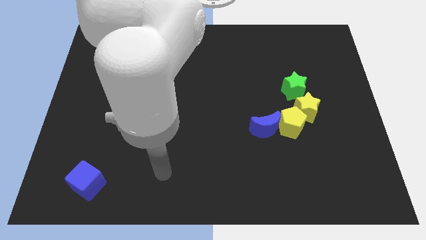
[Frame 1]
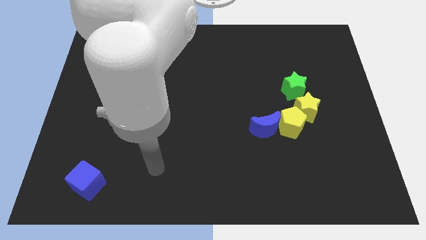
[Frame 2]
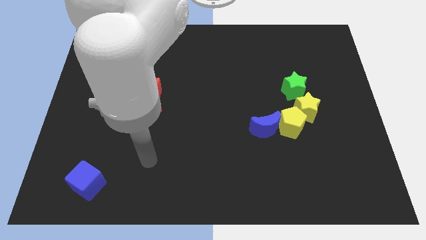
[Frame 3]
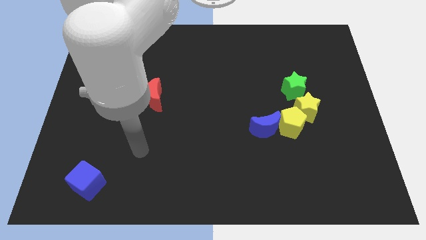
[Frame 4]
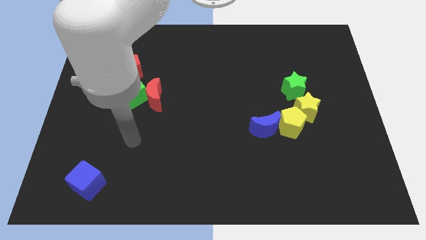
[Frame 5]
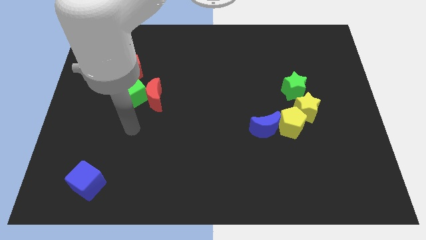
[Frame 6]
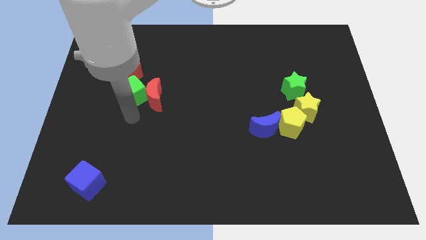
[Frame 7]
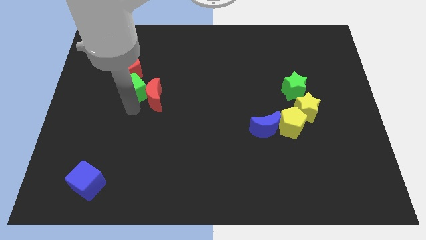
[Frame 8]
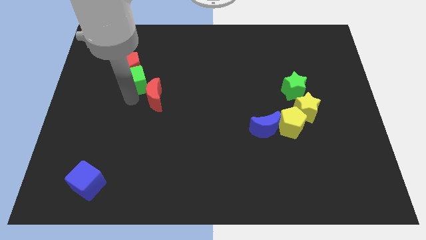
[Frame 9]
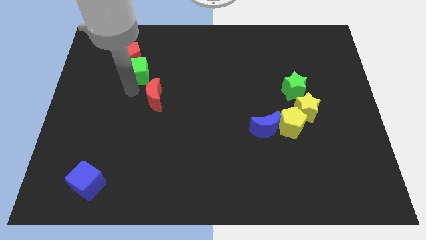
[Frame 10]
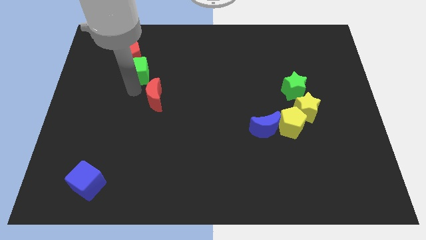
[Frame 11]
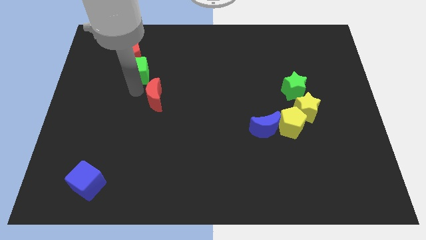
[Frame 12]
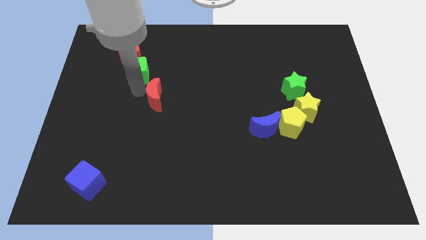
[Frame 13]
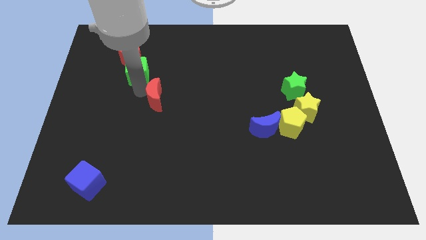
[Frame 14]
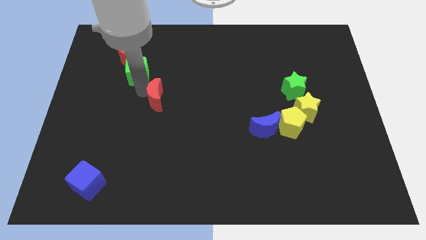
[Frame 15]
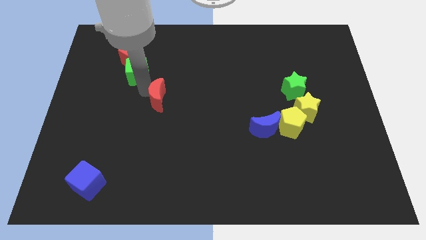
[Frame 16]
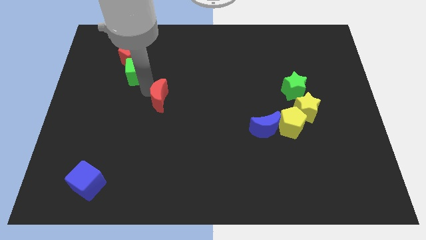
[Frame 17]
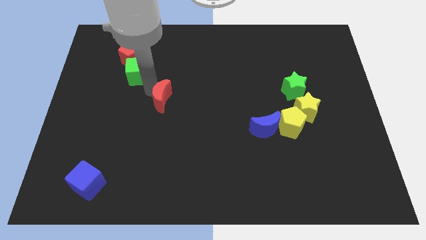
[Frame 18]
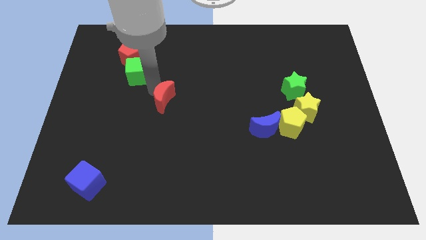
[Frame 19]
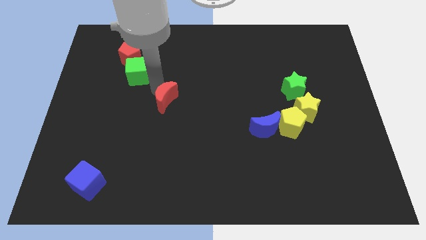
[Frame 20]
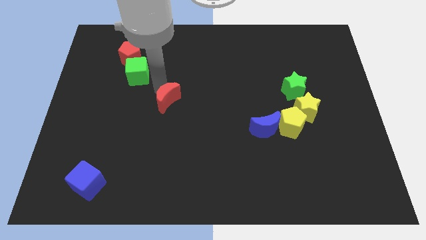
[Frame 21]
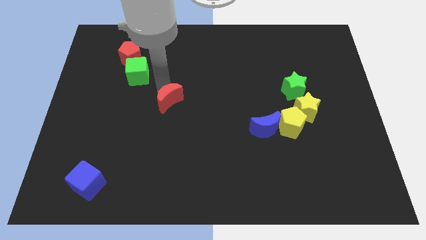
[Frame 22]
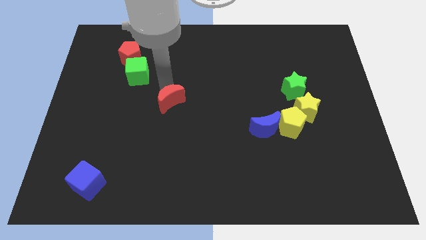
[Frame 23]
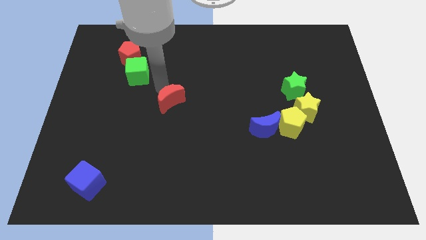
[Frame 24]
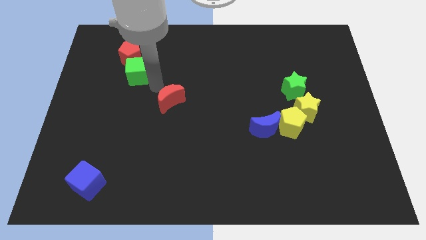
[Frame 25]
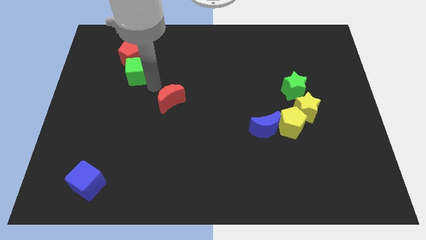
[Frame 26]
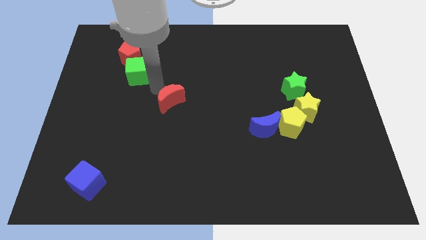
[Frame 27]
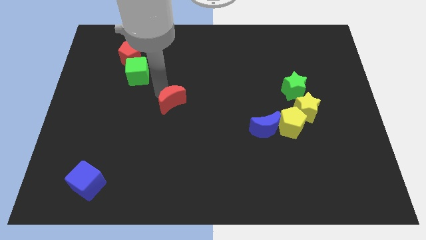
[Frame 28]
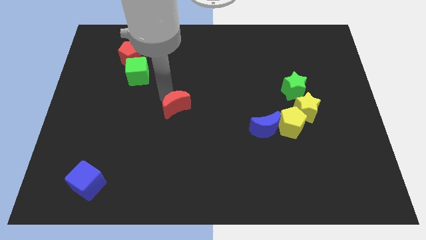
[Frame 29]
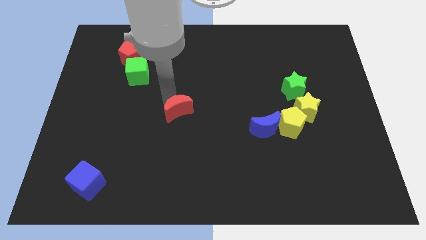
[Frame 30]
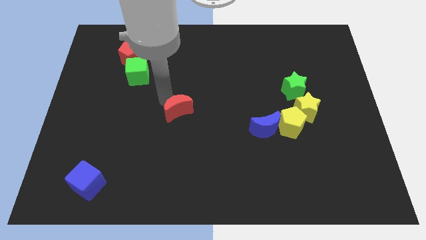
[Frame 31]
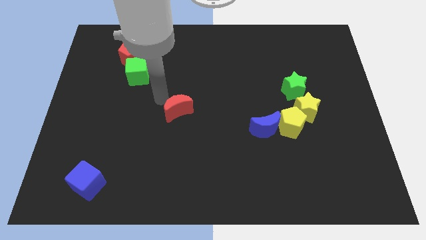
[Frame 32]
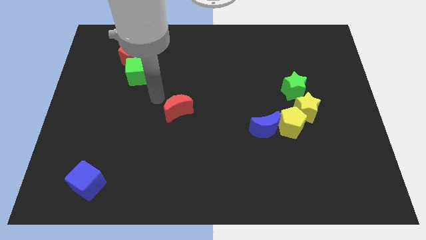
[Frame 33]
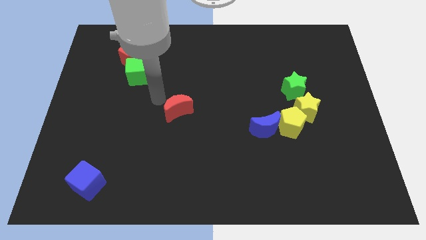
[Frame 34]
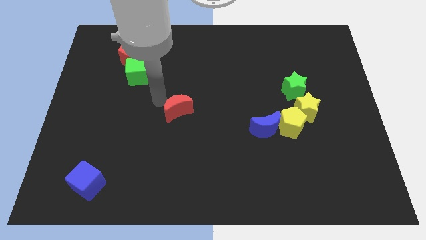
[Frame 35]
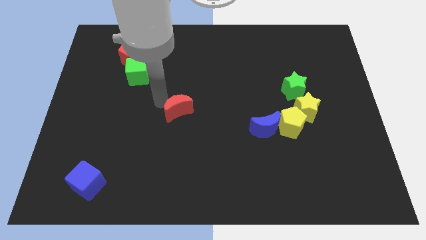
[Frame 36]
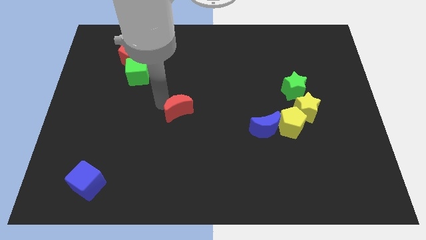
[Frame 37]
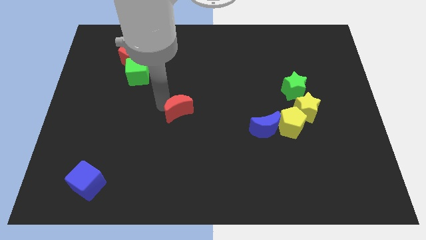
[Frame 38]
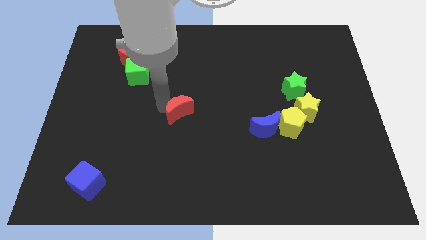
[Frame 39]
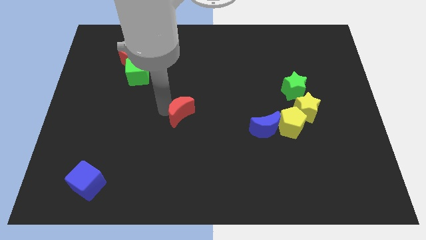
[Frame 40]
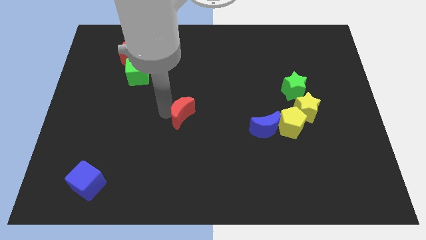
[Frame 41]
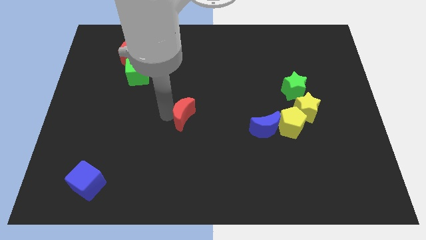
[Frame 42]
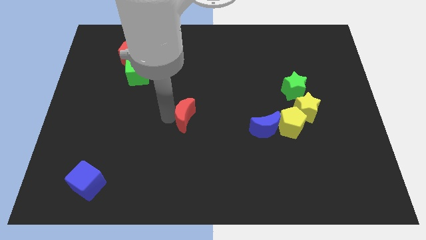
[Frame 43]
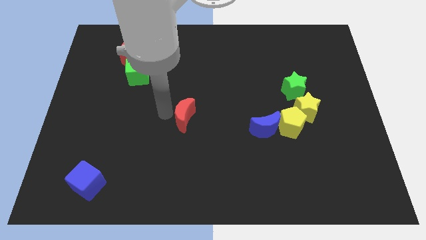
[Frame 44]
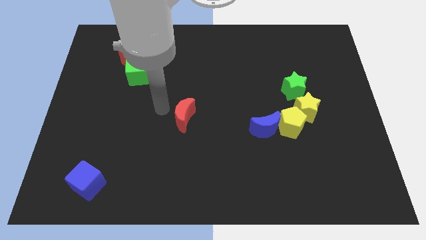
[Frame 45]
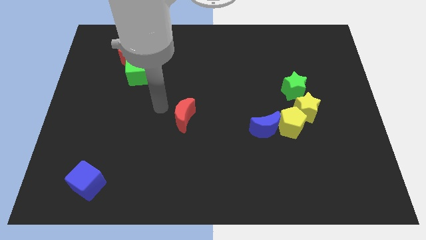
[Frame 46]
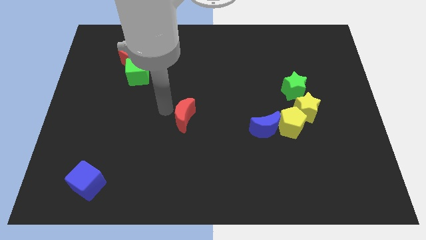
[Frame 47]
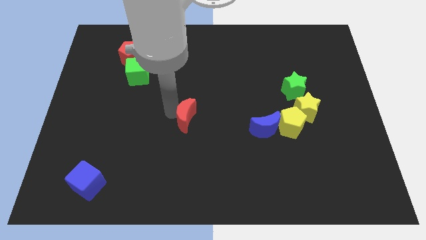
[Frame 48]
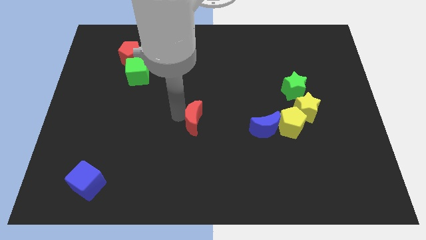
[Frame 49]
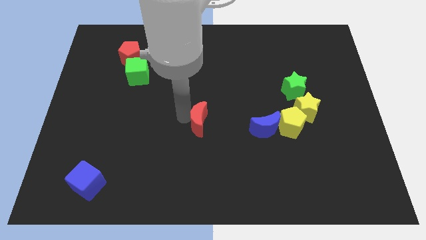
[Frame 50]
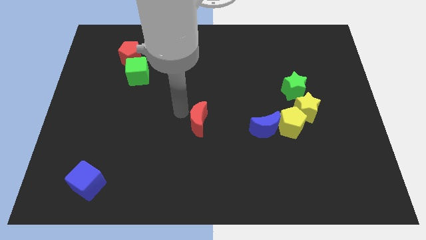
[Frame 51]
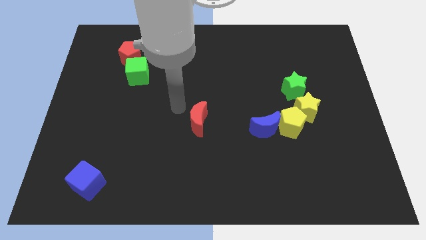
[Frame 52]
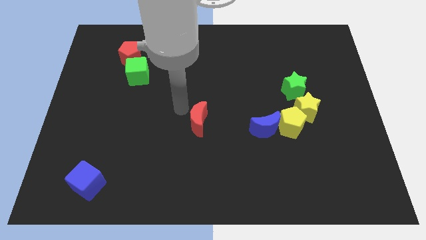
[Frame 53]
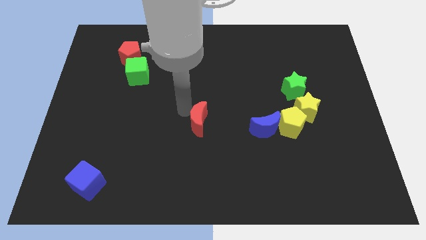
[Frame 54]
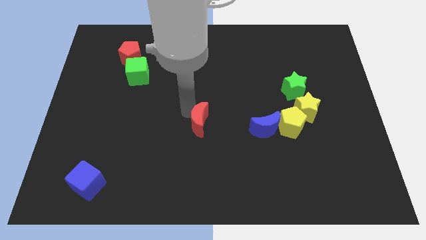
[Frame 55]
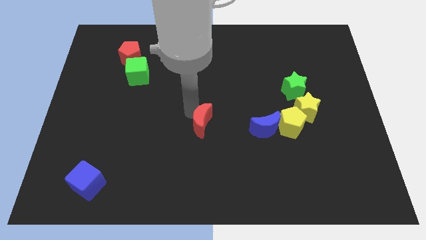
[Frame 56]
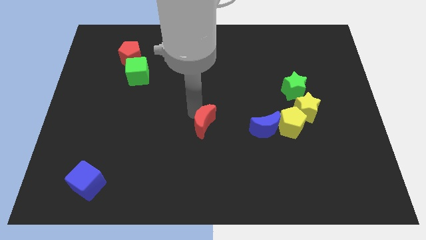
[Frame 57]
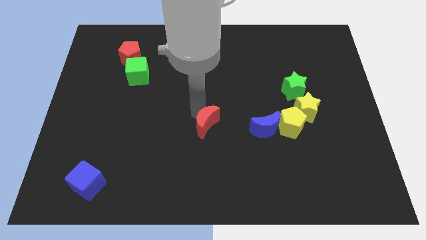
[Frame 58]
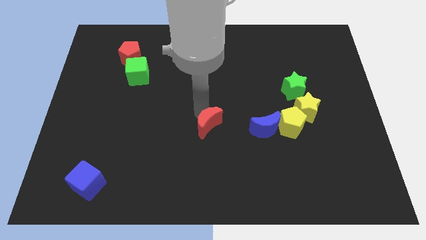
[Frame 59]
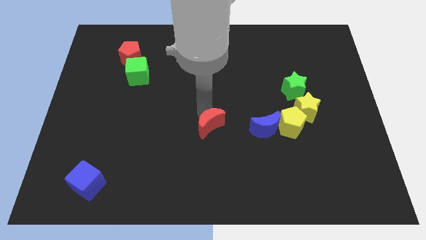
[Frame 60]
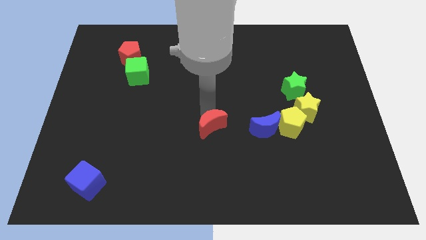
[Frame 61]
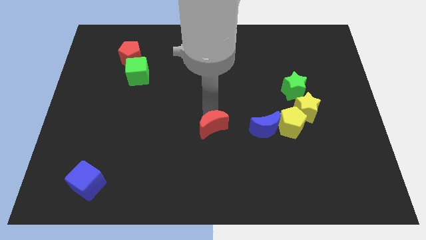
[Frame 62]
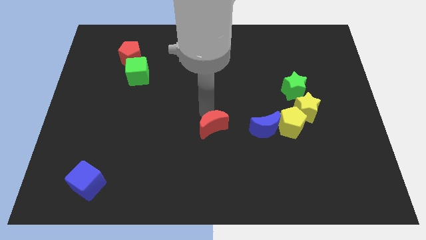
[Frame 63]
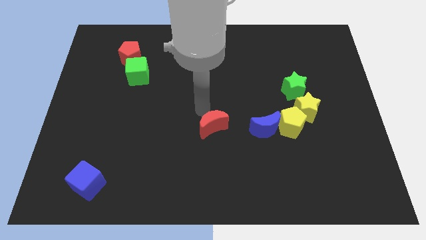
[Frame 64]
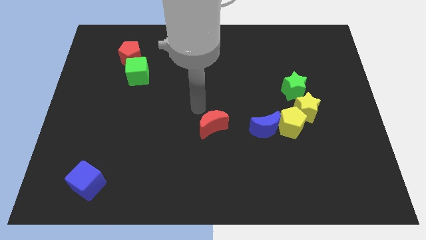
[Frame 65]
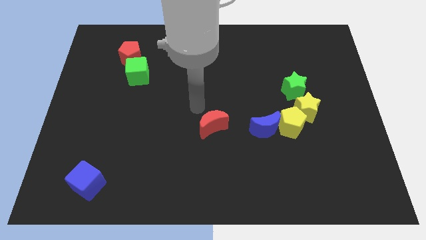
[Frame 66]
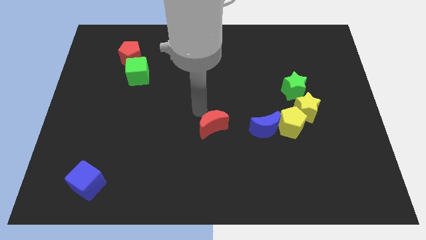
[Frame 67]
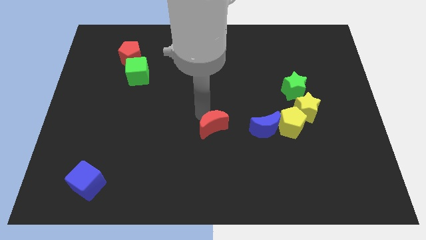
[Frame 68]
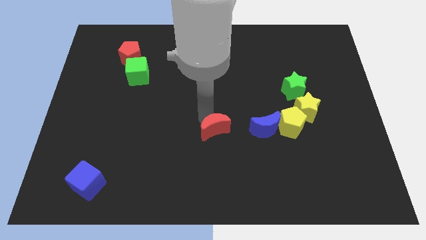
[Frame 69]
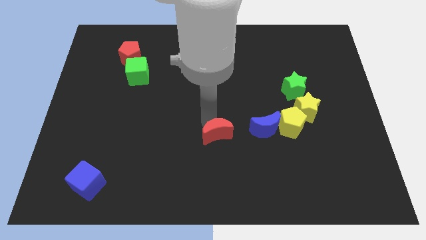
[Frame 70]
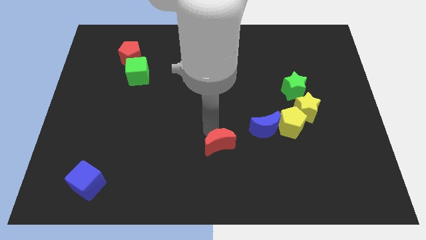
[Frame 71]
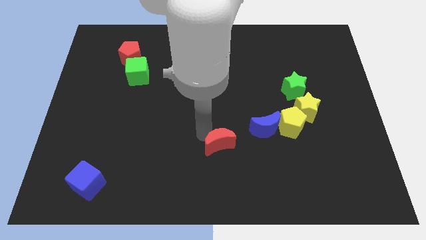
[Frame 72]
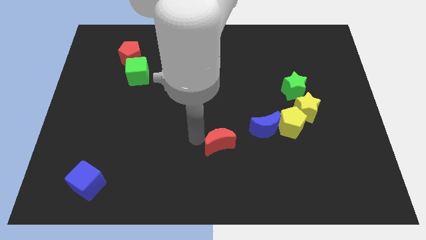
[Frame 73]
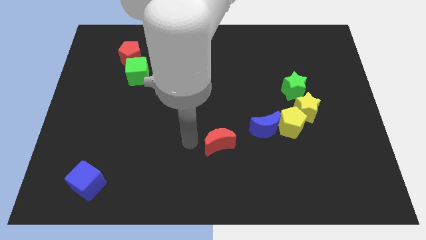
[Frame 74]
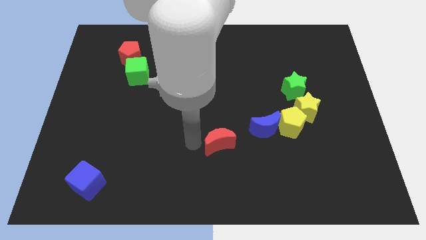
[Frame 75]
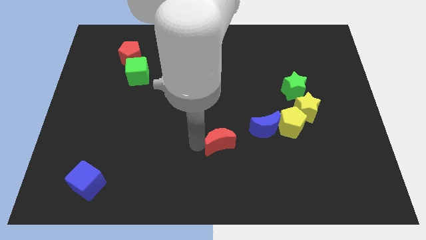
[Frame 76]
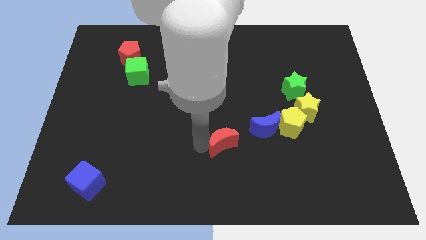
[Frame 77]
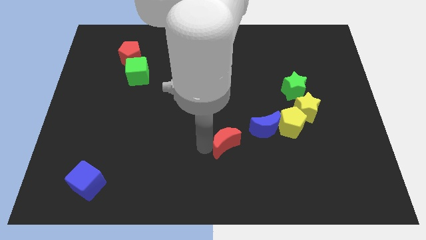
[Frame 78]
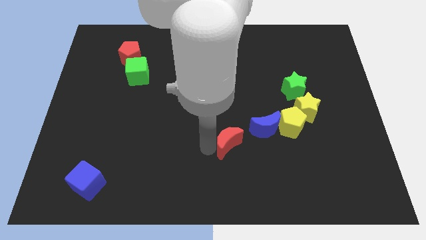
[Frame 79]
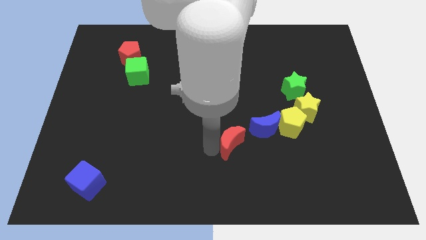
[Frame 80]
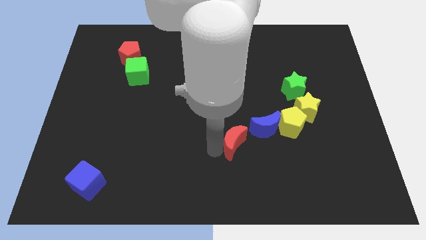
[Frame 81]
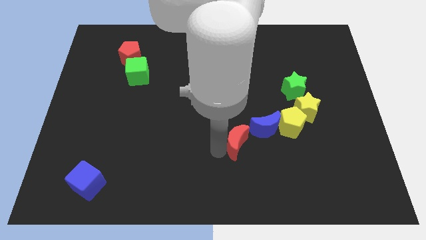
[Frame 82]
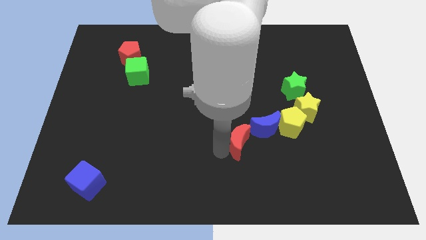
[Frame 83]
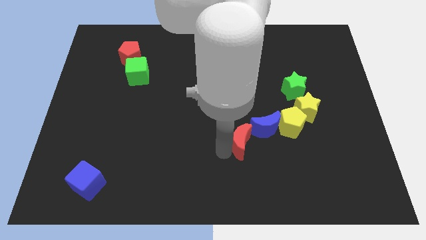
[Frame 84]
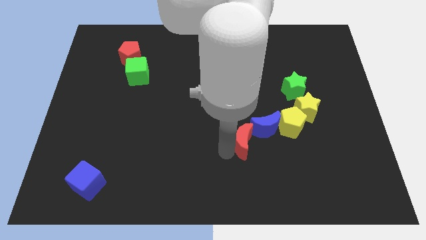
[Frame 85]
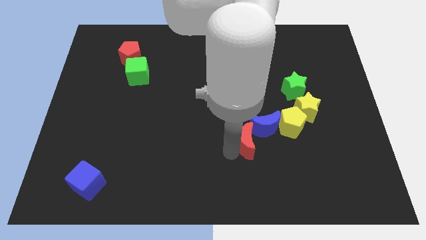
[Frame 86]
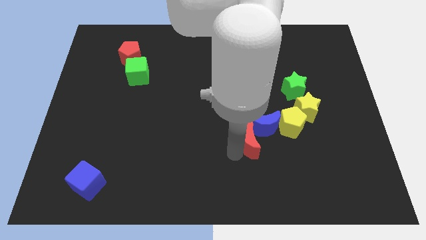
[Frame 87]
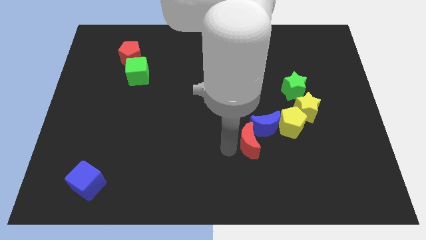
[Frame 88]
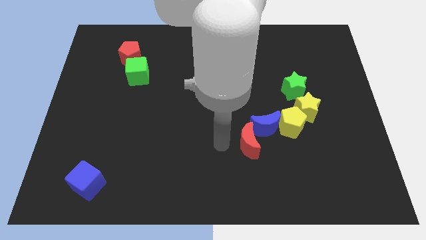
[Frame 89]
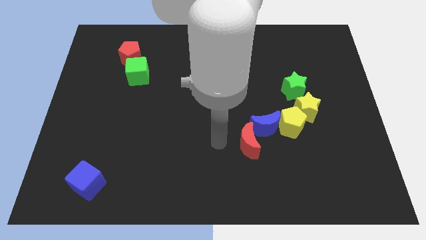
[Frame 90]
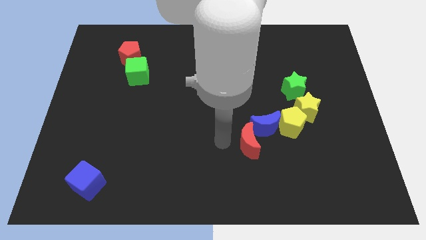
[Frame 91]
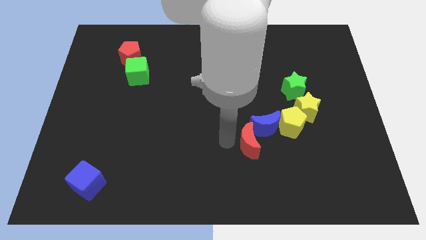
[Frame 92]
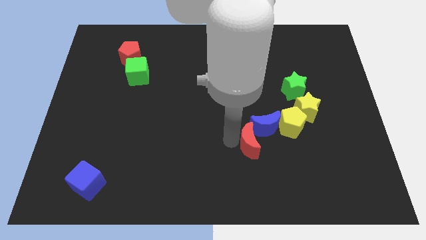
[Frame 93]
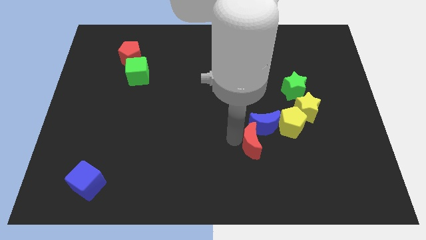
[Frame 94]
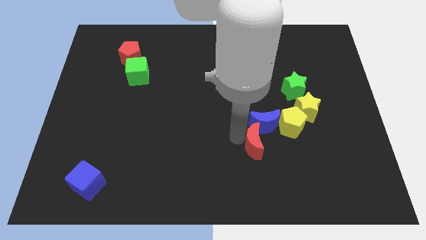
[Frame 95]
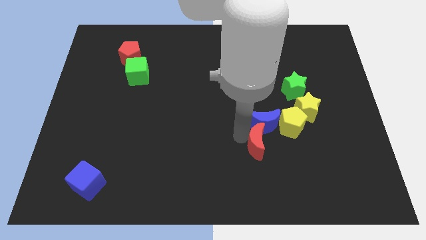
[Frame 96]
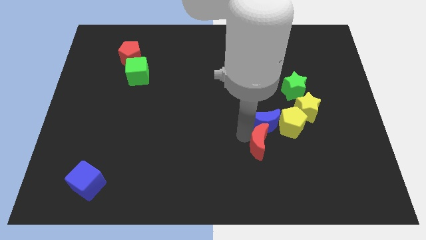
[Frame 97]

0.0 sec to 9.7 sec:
move the red moon to the bottom right of the blue moon
